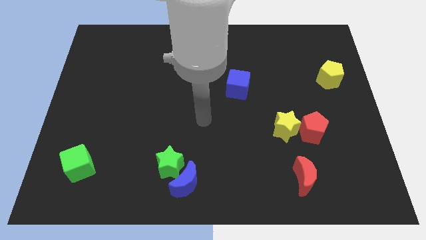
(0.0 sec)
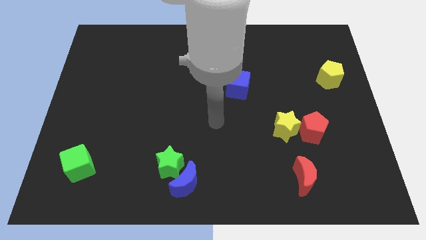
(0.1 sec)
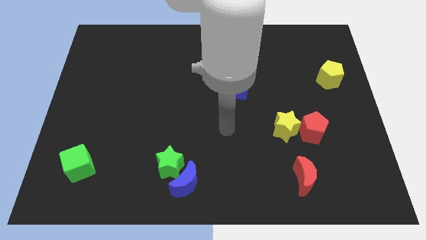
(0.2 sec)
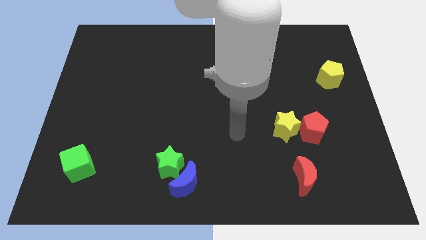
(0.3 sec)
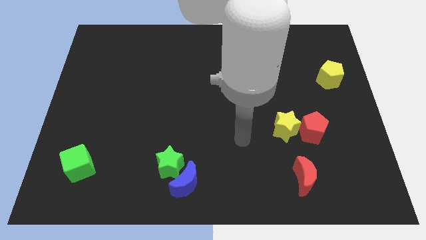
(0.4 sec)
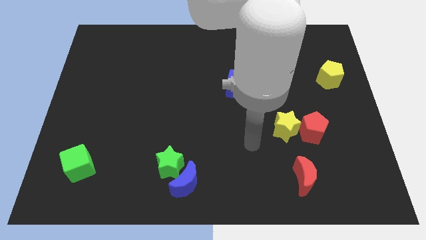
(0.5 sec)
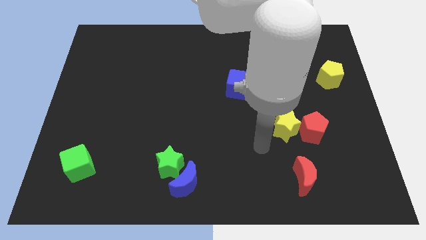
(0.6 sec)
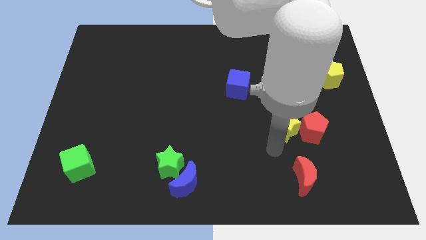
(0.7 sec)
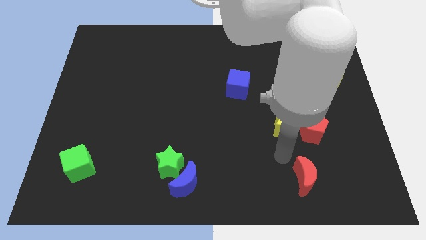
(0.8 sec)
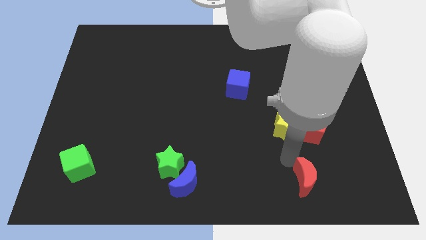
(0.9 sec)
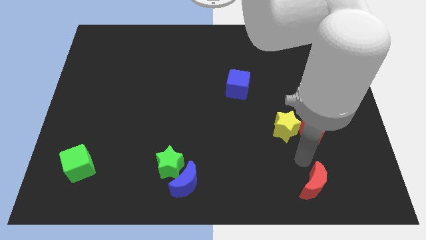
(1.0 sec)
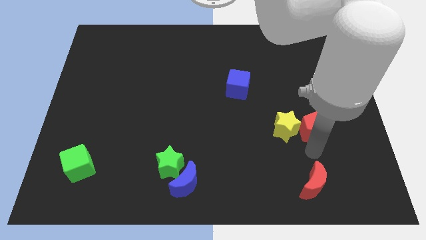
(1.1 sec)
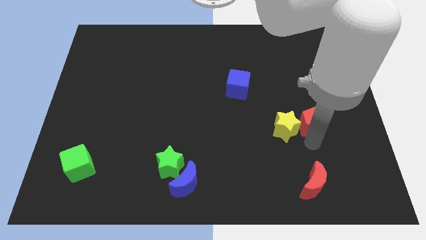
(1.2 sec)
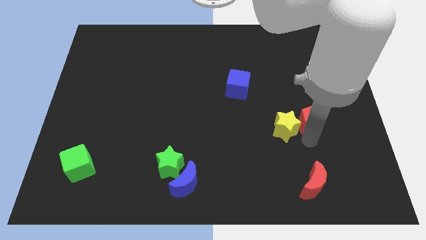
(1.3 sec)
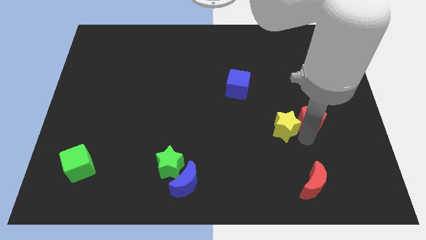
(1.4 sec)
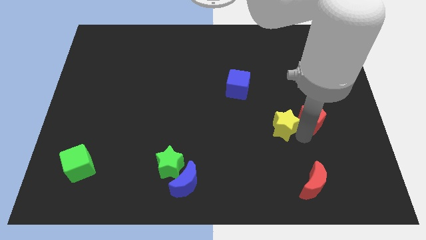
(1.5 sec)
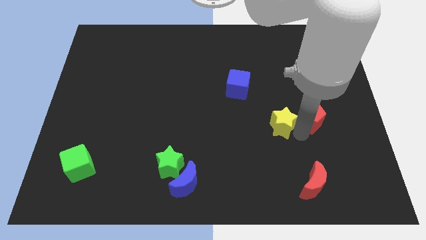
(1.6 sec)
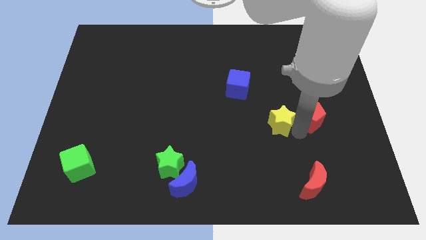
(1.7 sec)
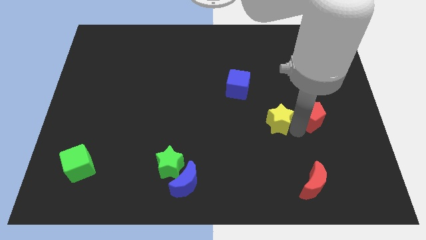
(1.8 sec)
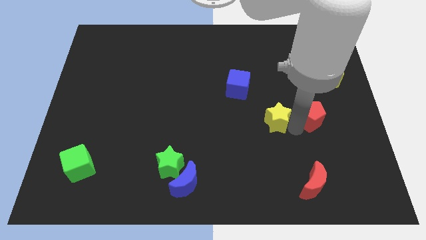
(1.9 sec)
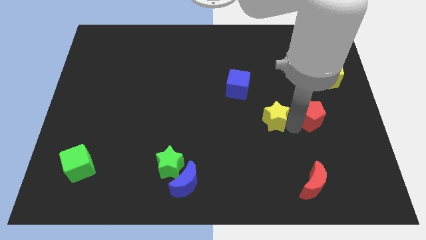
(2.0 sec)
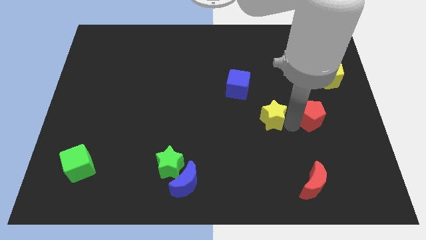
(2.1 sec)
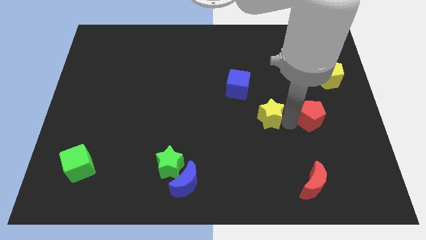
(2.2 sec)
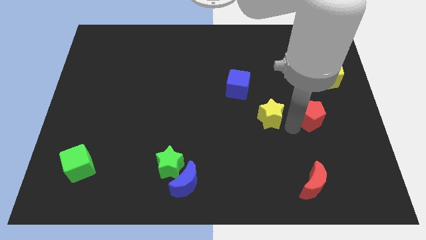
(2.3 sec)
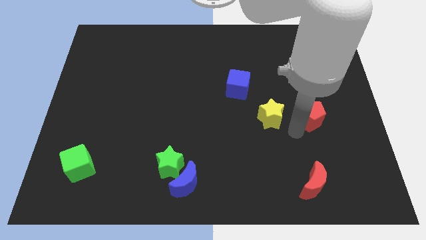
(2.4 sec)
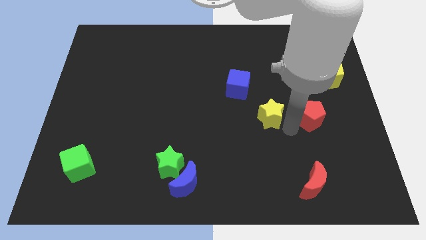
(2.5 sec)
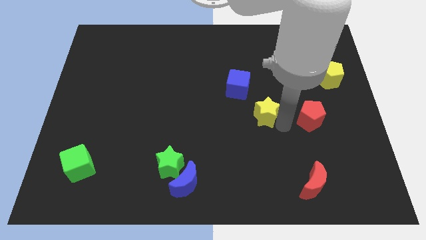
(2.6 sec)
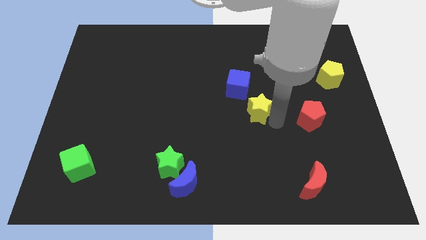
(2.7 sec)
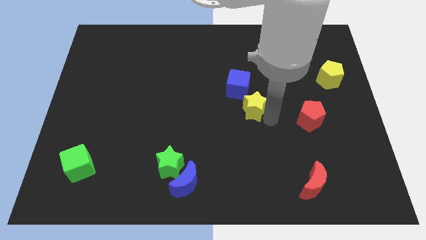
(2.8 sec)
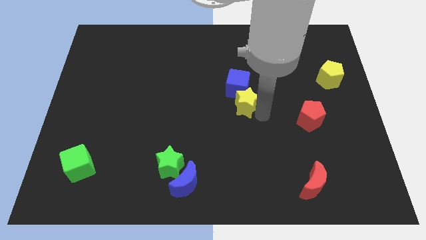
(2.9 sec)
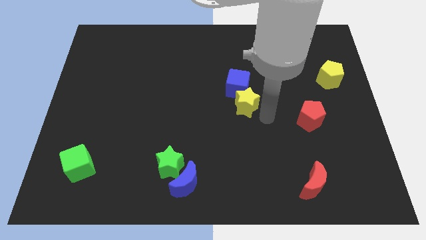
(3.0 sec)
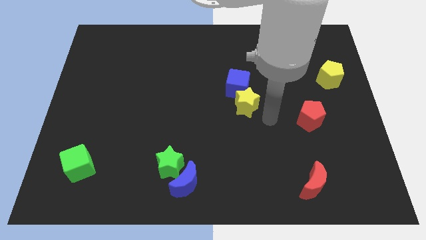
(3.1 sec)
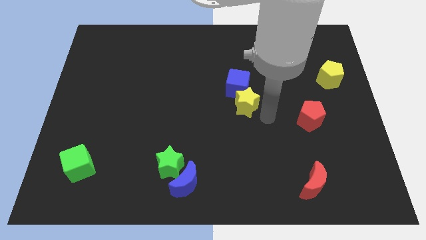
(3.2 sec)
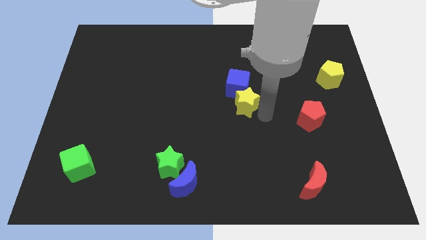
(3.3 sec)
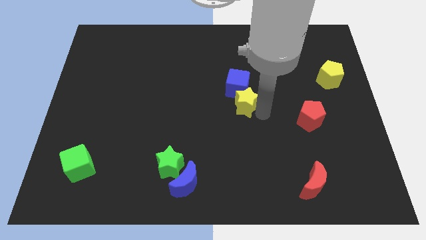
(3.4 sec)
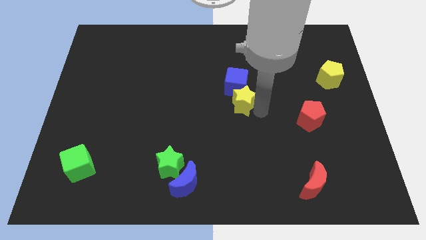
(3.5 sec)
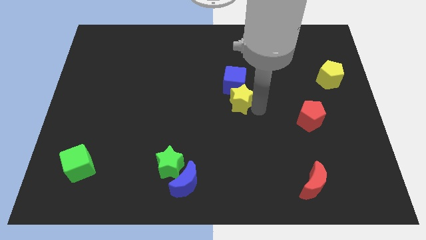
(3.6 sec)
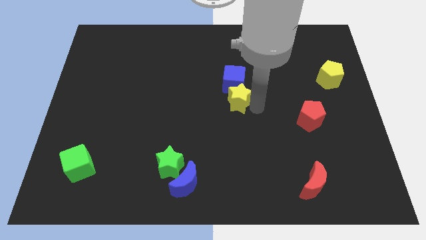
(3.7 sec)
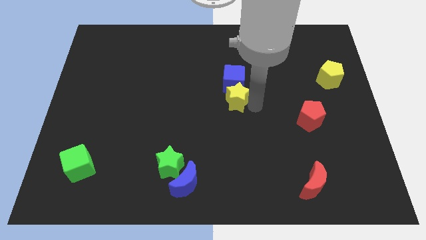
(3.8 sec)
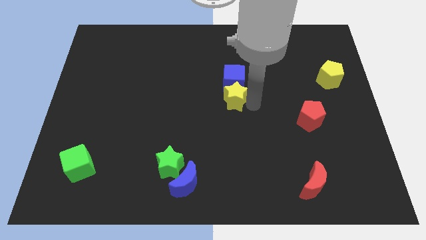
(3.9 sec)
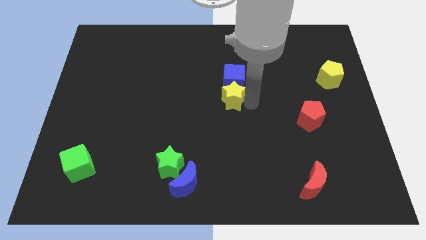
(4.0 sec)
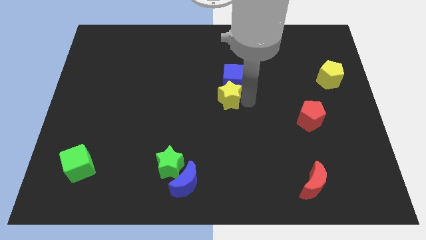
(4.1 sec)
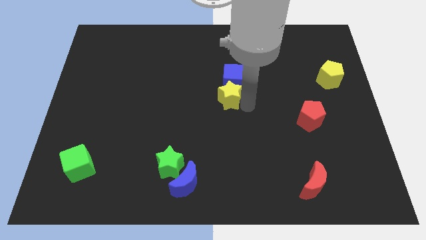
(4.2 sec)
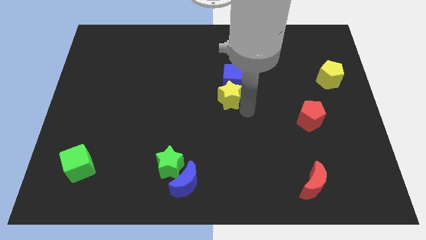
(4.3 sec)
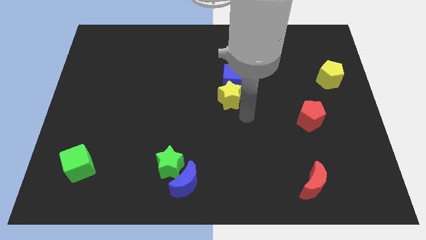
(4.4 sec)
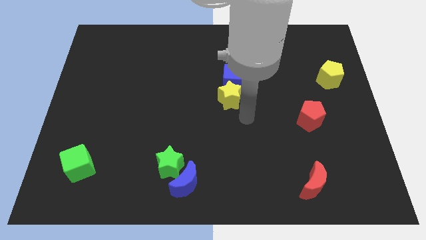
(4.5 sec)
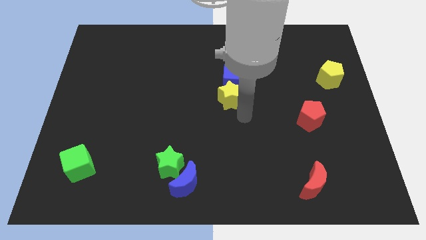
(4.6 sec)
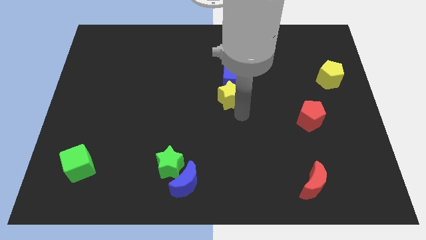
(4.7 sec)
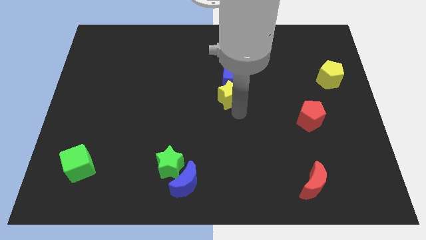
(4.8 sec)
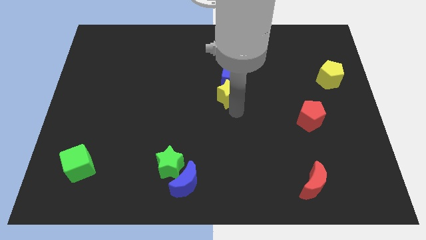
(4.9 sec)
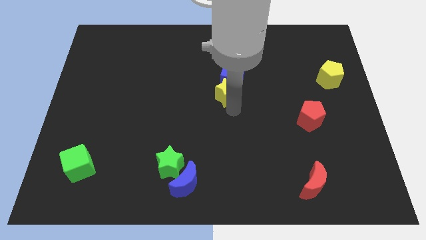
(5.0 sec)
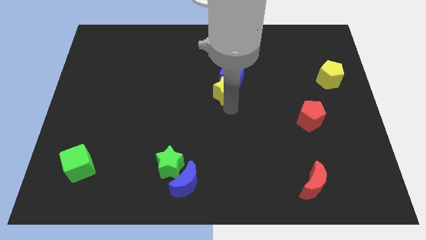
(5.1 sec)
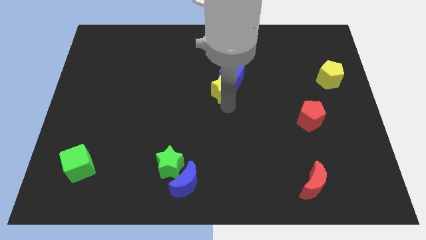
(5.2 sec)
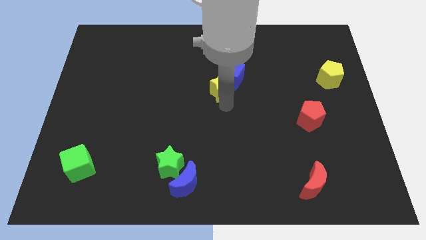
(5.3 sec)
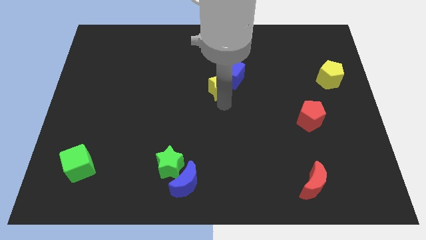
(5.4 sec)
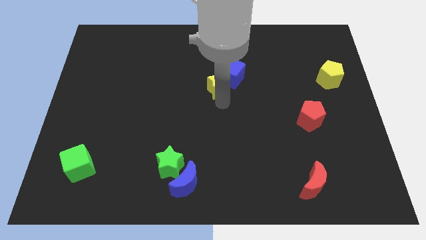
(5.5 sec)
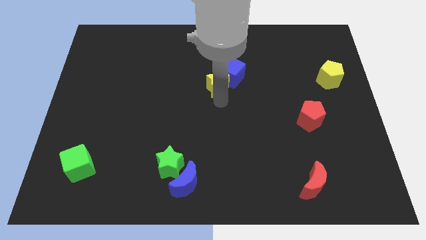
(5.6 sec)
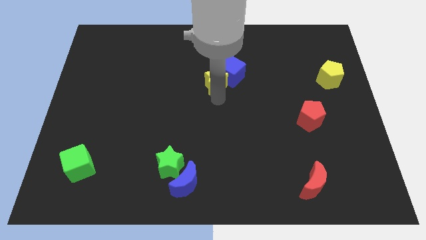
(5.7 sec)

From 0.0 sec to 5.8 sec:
push the yellow star upwards and left diagonally

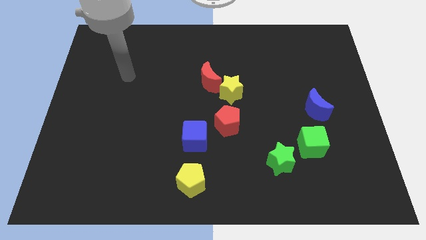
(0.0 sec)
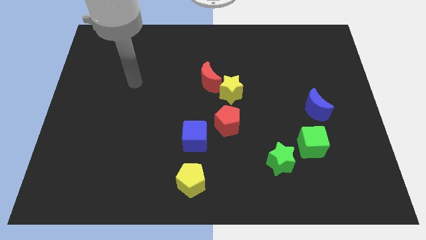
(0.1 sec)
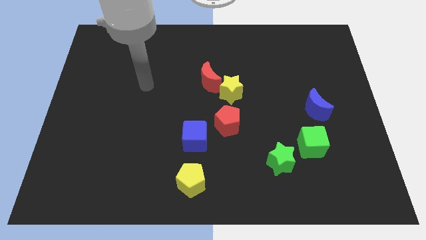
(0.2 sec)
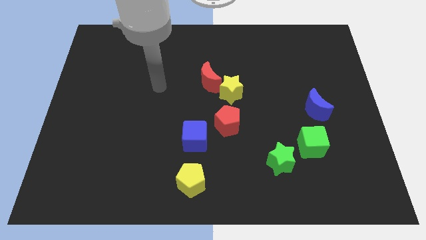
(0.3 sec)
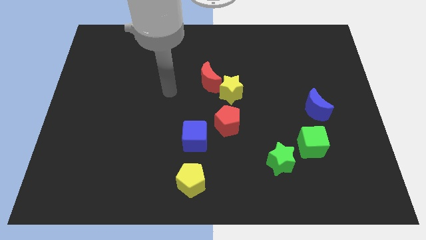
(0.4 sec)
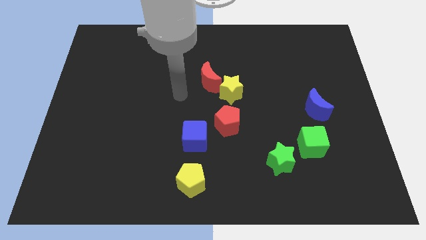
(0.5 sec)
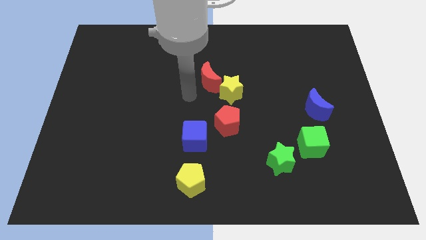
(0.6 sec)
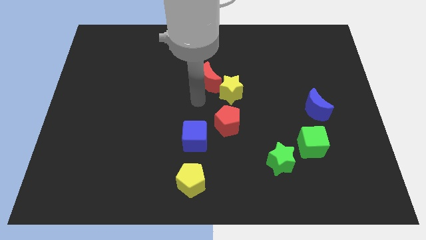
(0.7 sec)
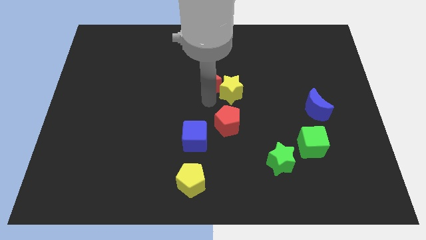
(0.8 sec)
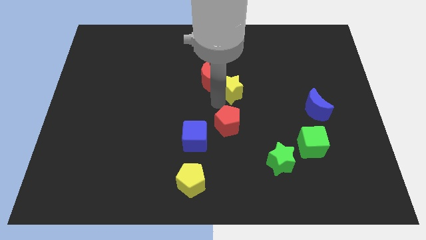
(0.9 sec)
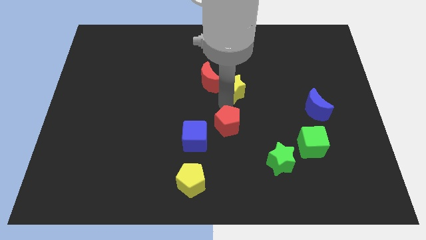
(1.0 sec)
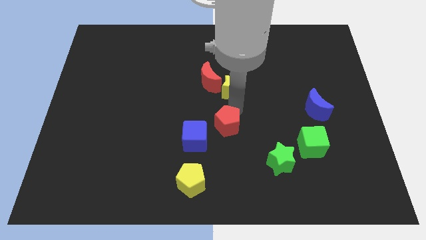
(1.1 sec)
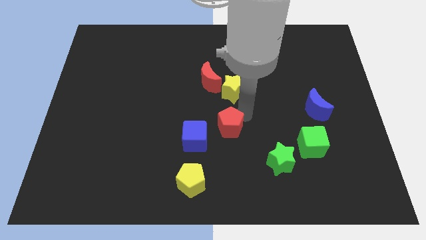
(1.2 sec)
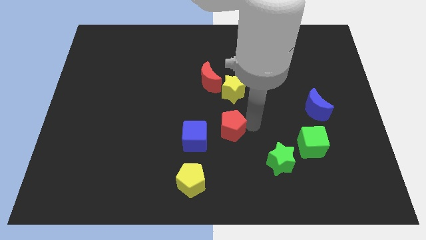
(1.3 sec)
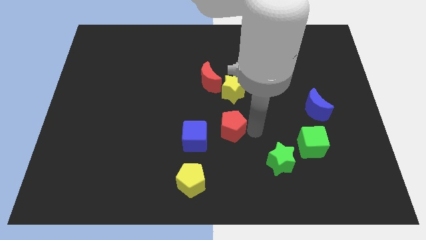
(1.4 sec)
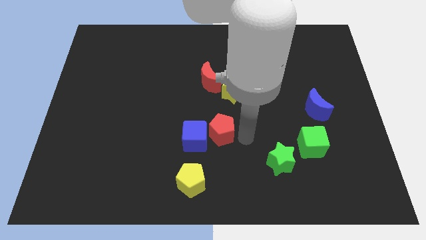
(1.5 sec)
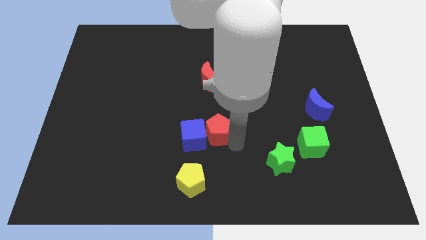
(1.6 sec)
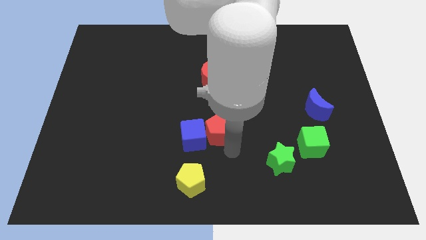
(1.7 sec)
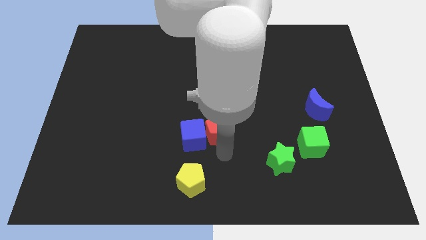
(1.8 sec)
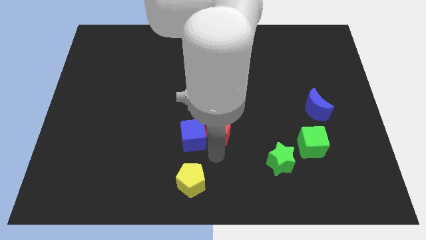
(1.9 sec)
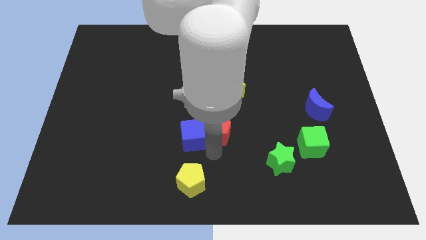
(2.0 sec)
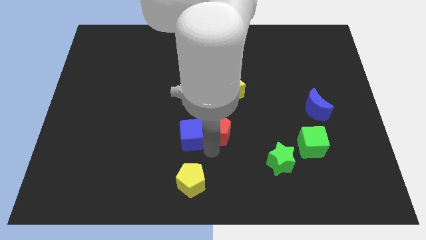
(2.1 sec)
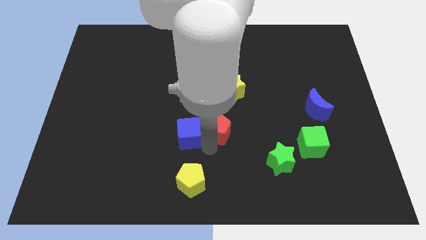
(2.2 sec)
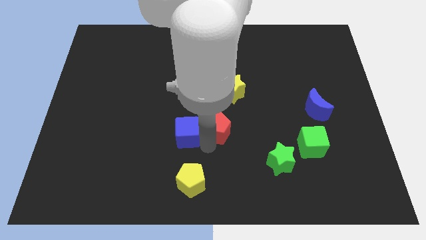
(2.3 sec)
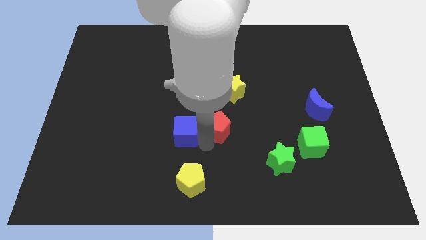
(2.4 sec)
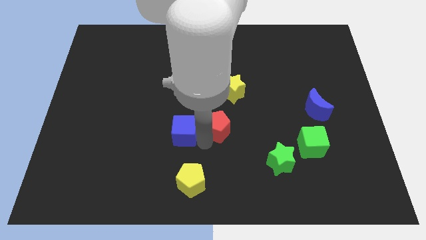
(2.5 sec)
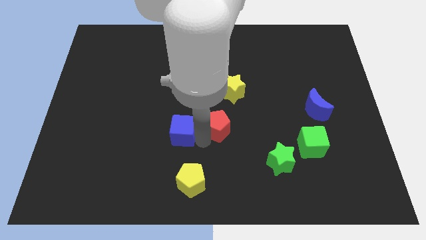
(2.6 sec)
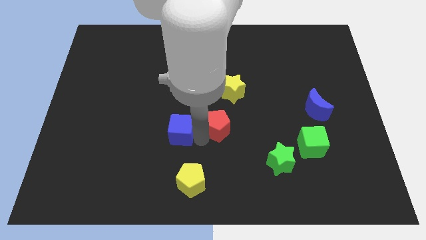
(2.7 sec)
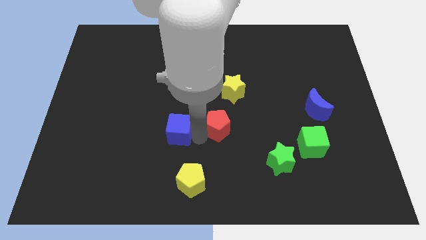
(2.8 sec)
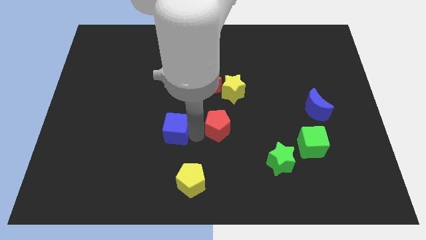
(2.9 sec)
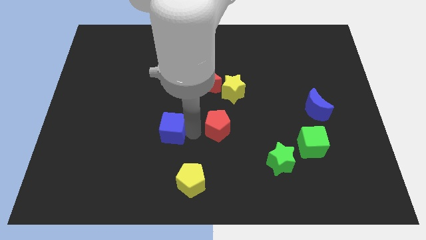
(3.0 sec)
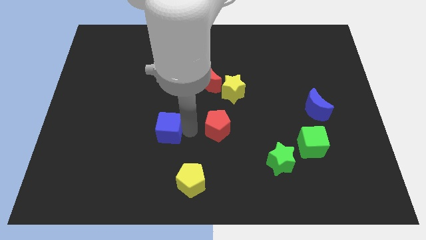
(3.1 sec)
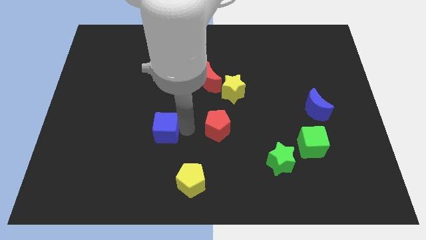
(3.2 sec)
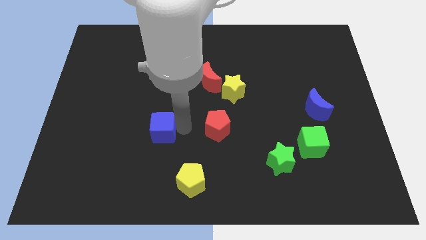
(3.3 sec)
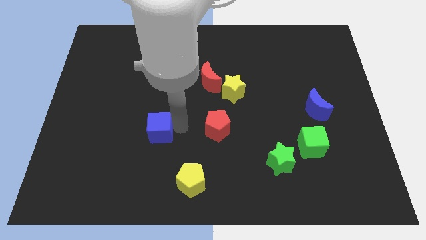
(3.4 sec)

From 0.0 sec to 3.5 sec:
push the blue cube up and left diagonally slightly
